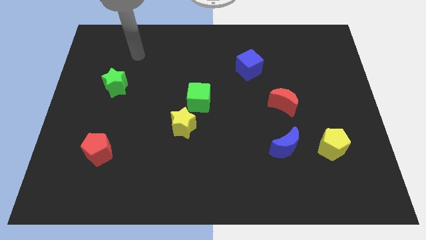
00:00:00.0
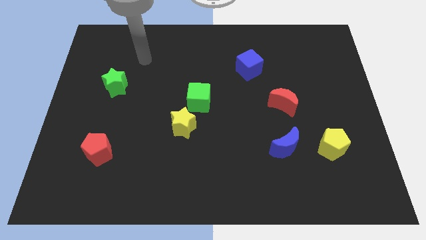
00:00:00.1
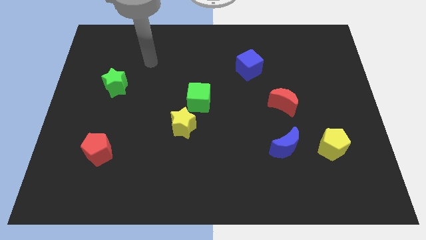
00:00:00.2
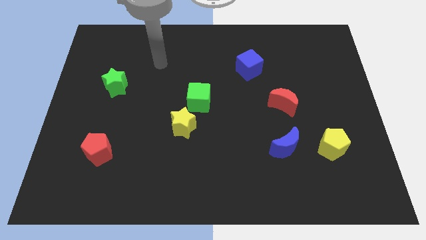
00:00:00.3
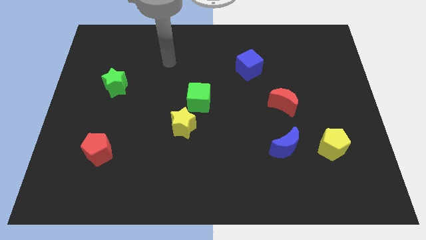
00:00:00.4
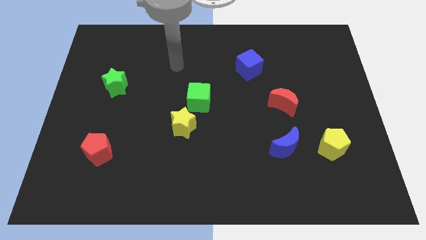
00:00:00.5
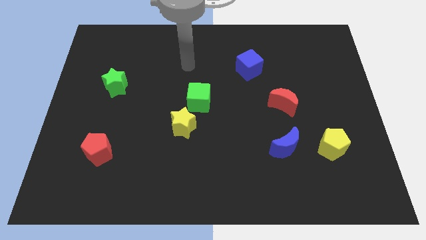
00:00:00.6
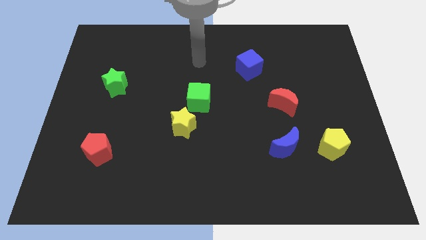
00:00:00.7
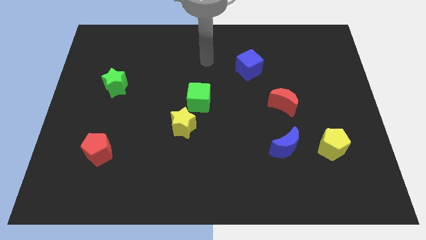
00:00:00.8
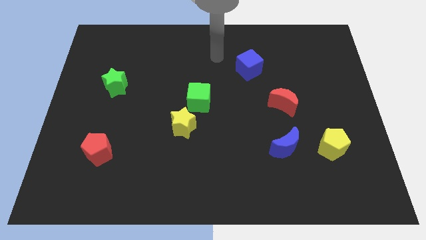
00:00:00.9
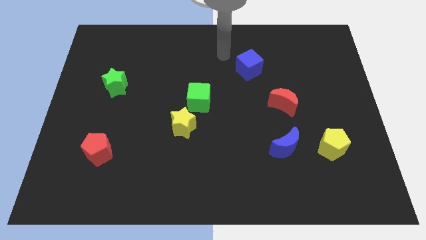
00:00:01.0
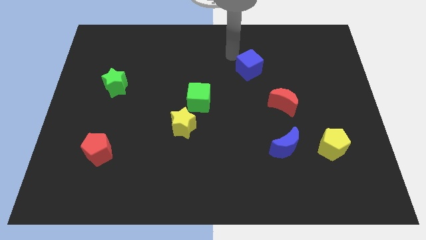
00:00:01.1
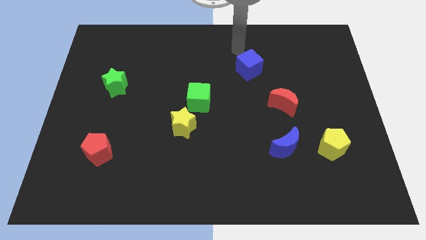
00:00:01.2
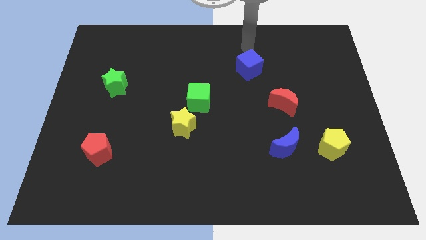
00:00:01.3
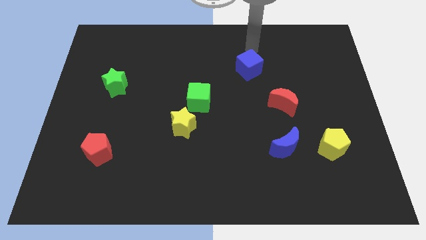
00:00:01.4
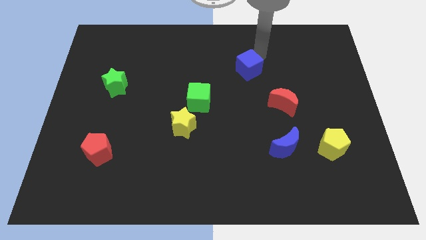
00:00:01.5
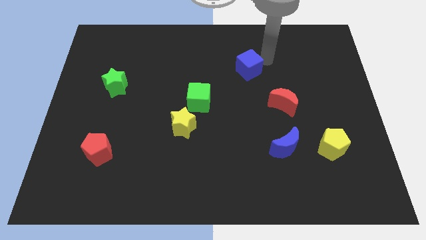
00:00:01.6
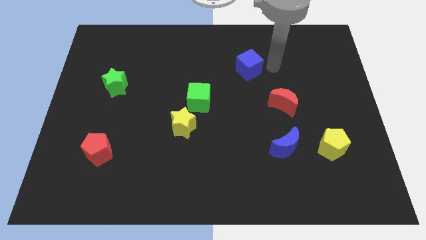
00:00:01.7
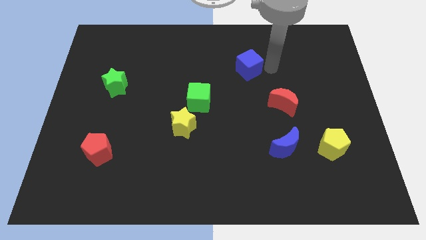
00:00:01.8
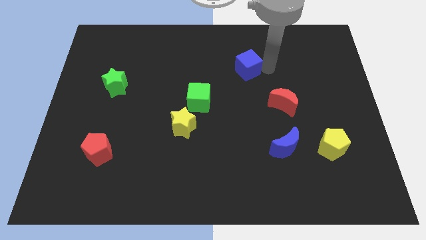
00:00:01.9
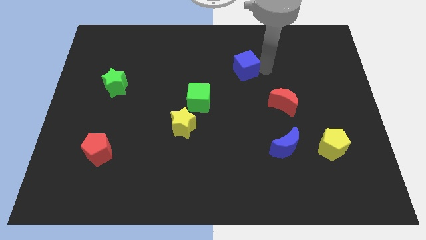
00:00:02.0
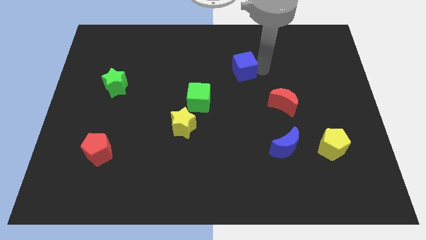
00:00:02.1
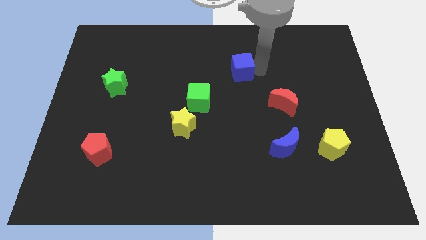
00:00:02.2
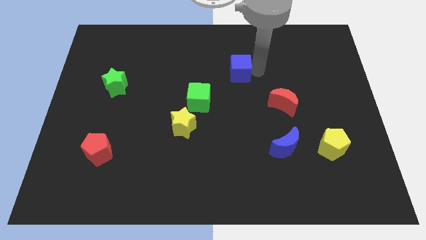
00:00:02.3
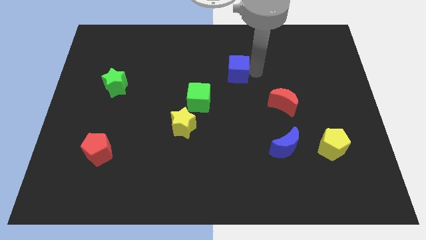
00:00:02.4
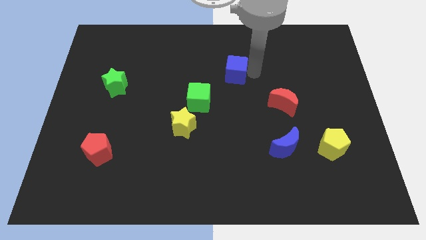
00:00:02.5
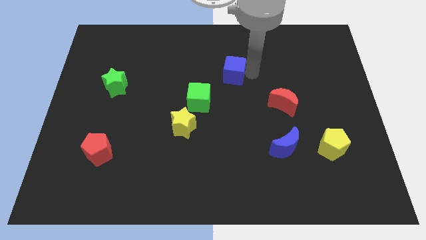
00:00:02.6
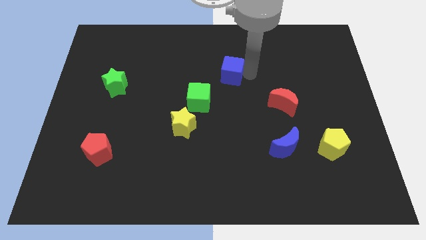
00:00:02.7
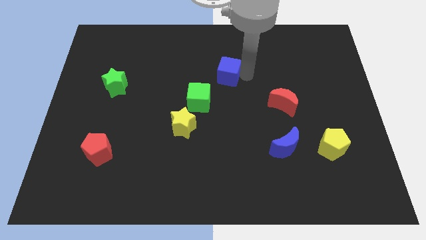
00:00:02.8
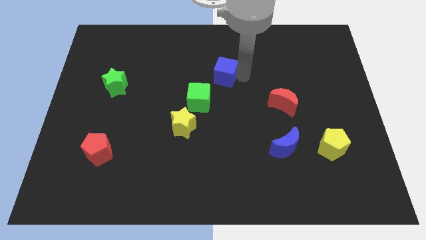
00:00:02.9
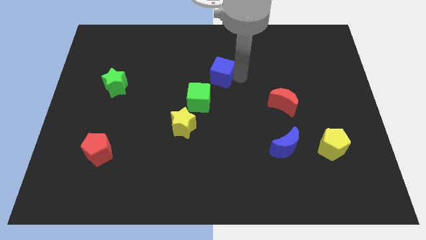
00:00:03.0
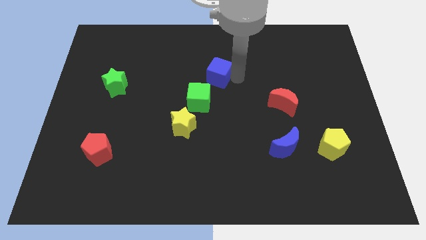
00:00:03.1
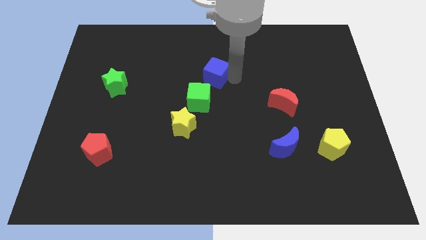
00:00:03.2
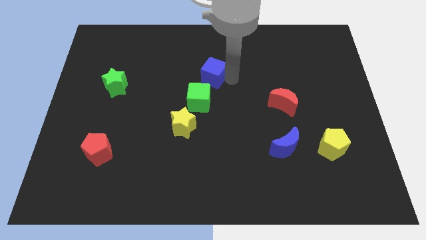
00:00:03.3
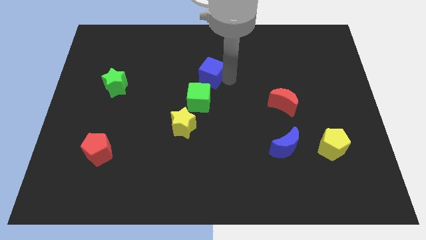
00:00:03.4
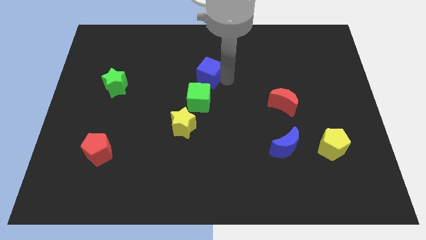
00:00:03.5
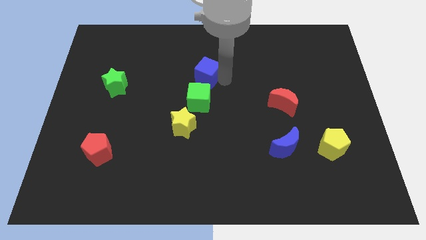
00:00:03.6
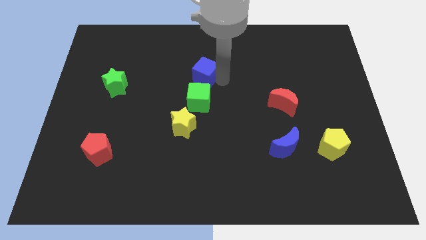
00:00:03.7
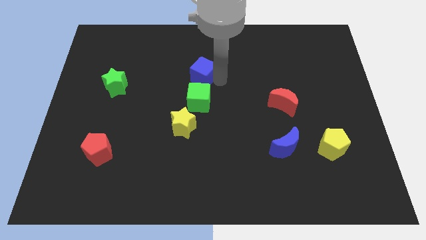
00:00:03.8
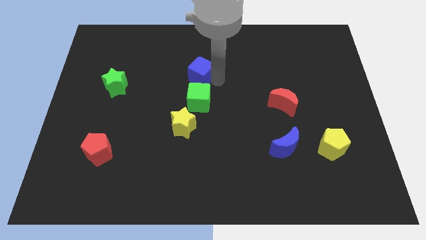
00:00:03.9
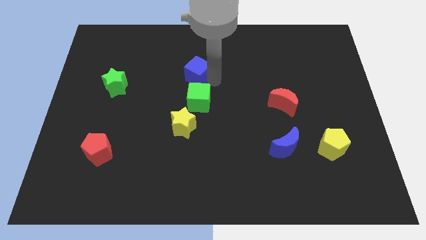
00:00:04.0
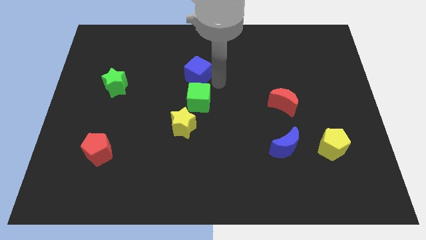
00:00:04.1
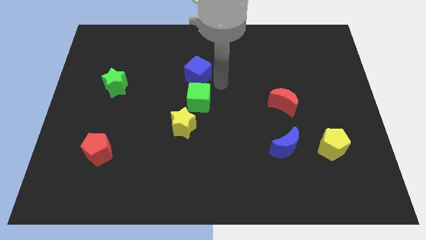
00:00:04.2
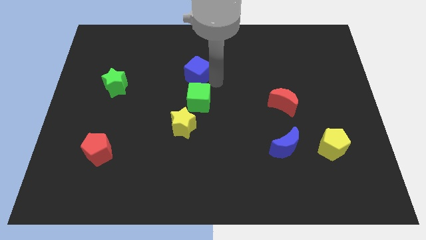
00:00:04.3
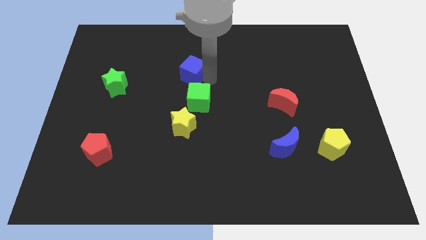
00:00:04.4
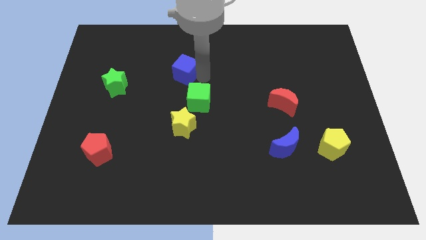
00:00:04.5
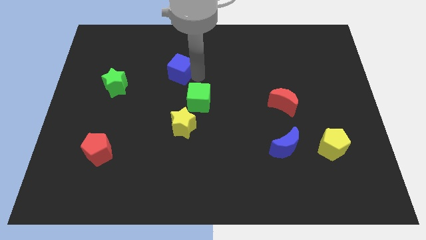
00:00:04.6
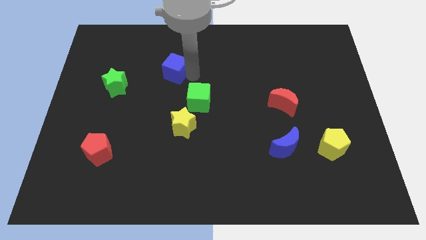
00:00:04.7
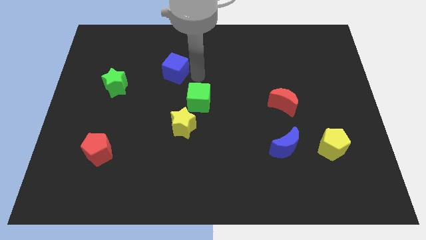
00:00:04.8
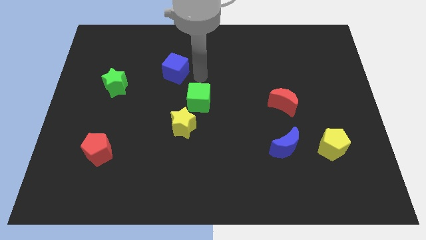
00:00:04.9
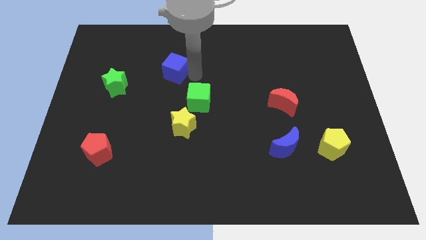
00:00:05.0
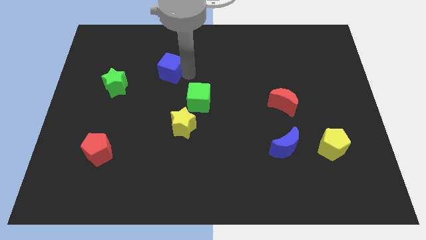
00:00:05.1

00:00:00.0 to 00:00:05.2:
move the blue cube left

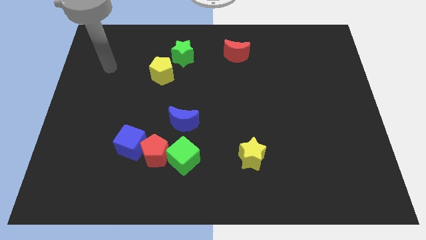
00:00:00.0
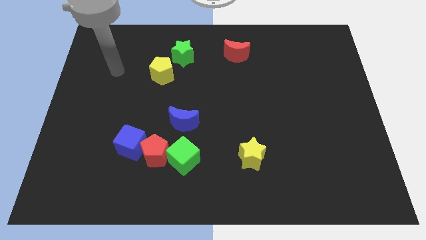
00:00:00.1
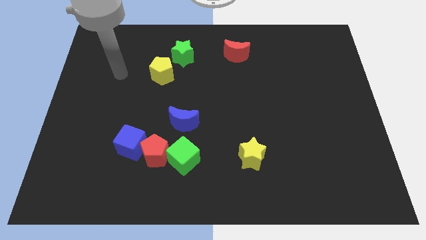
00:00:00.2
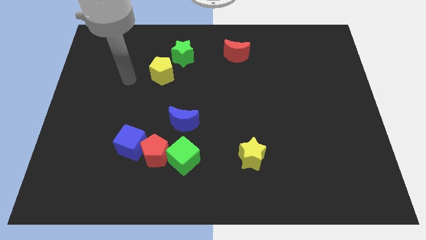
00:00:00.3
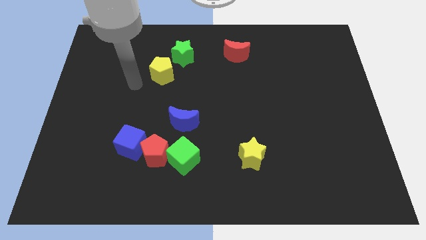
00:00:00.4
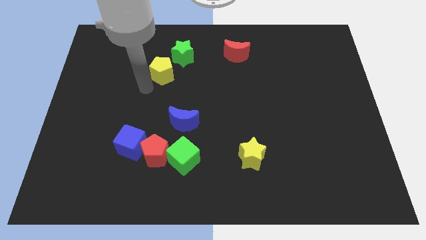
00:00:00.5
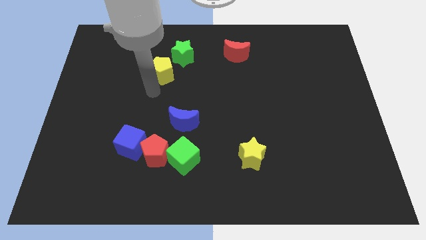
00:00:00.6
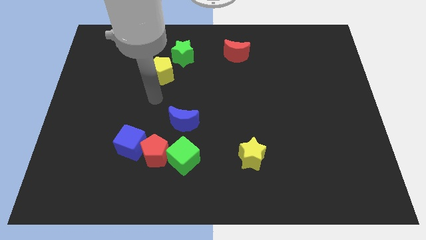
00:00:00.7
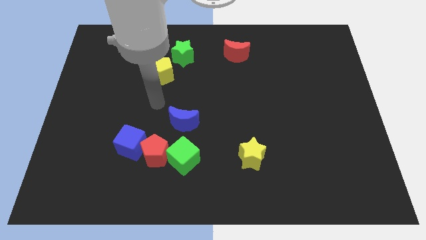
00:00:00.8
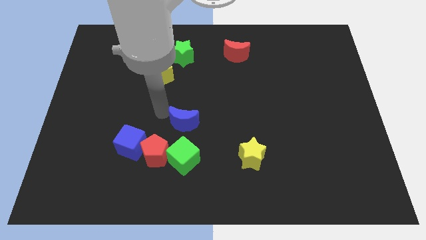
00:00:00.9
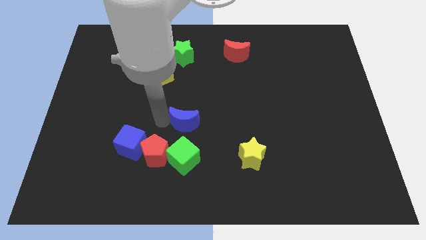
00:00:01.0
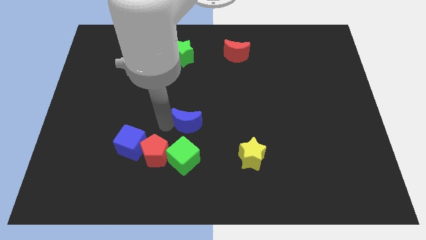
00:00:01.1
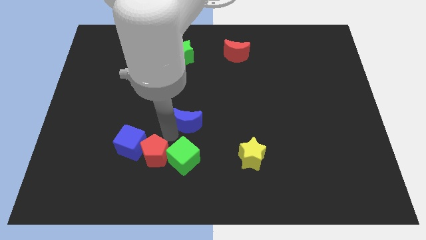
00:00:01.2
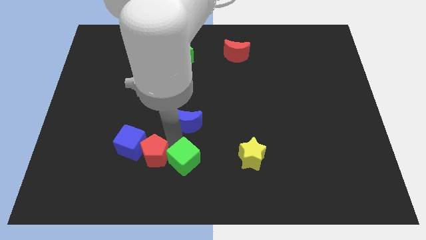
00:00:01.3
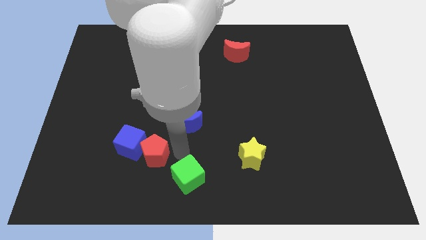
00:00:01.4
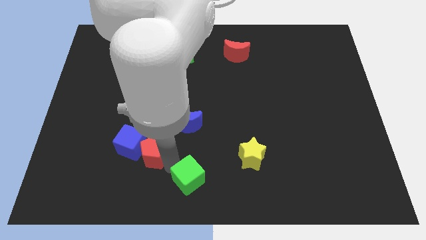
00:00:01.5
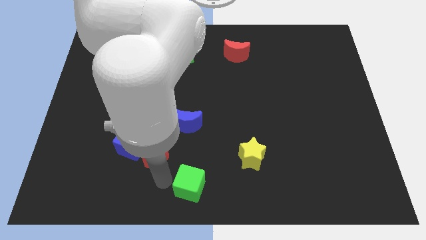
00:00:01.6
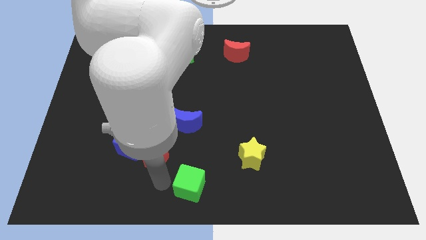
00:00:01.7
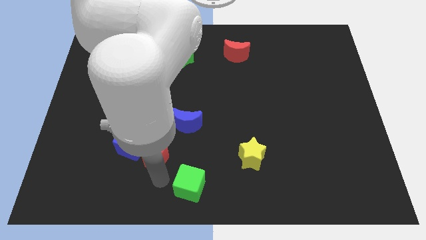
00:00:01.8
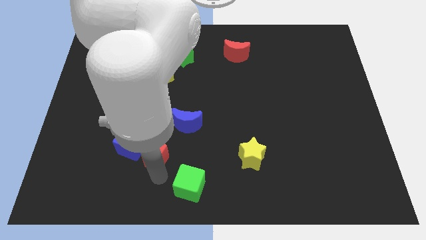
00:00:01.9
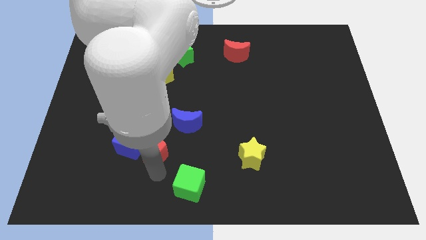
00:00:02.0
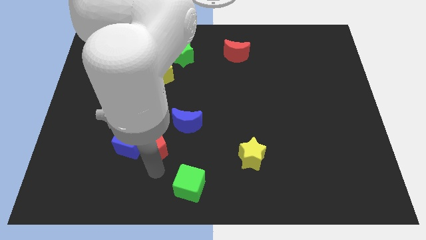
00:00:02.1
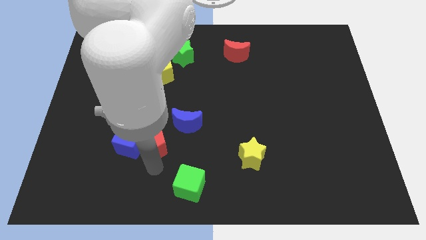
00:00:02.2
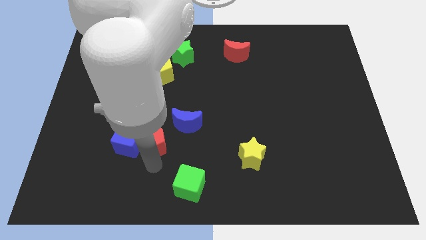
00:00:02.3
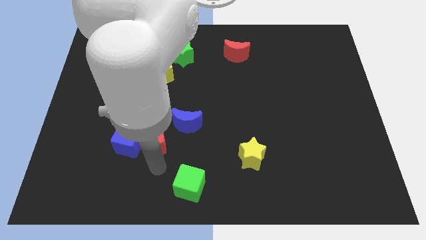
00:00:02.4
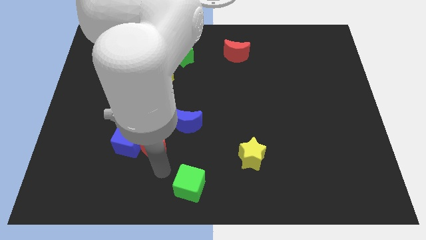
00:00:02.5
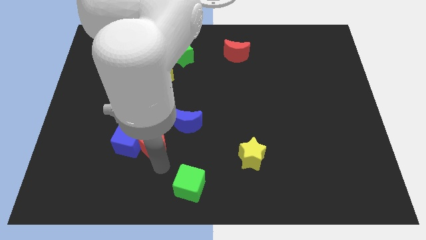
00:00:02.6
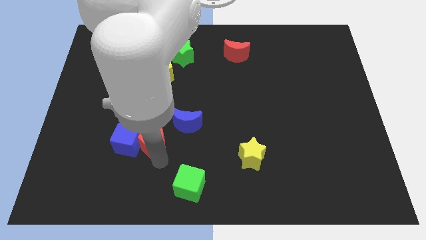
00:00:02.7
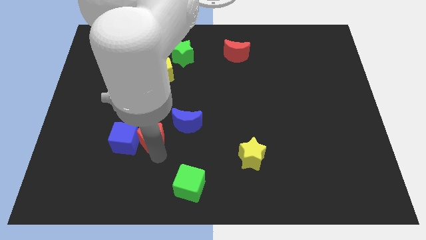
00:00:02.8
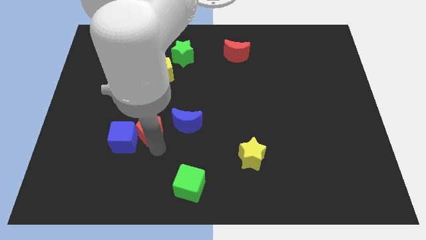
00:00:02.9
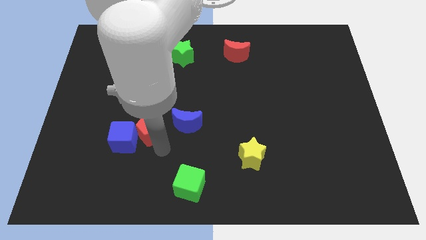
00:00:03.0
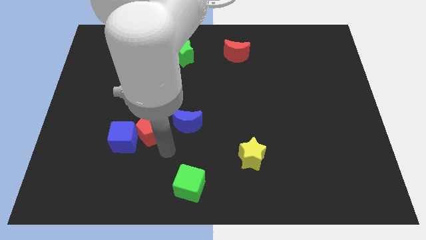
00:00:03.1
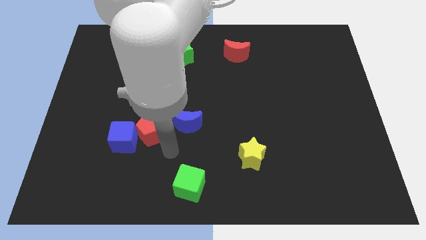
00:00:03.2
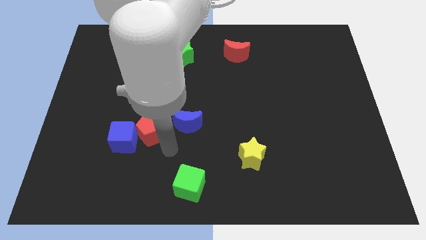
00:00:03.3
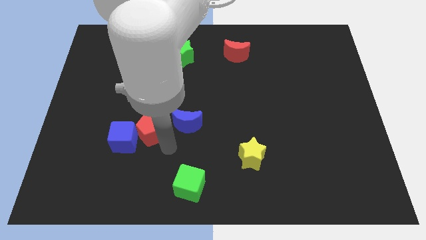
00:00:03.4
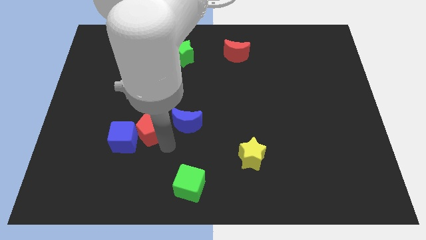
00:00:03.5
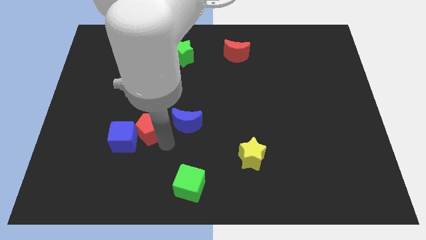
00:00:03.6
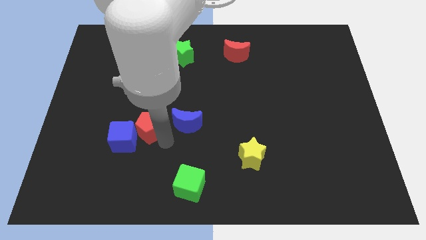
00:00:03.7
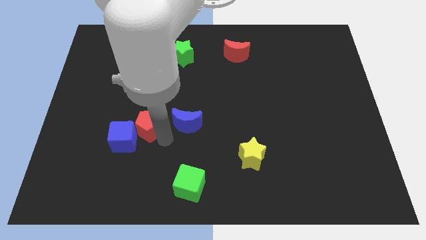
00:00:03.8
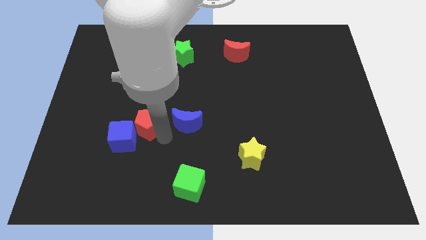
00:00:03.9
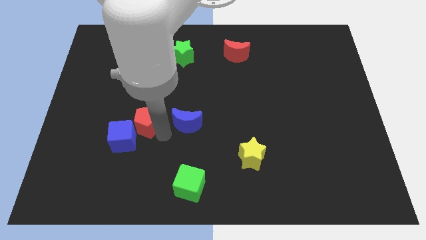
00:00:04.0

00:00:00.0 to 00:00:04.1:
slightly slide the red pentagon up and to the left
